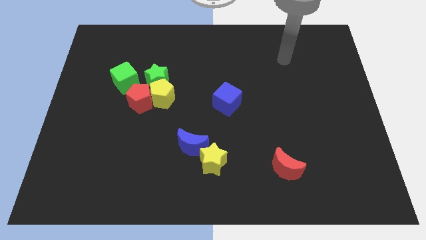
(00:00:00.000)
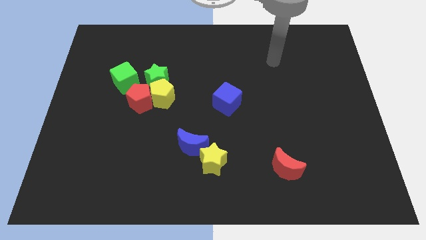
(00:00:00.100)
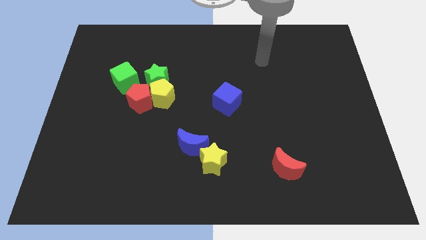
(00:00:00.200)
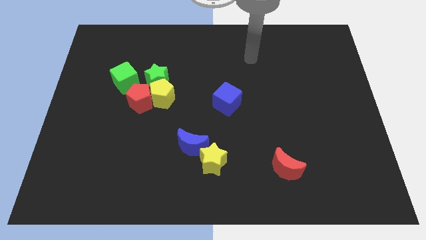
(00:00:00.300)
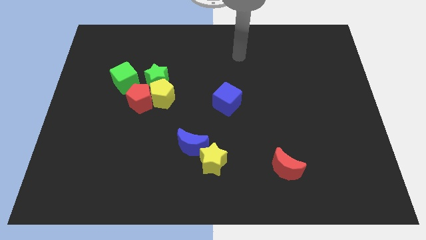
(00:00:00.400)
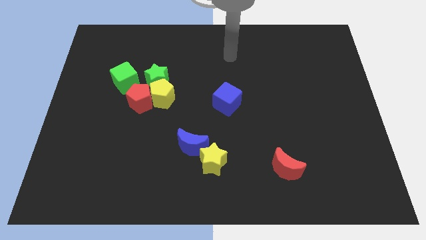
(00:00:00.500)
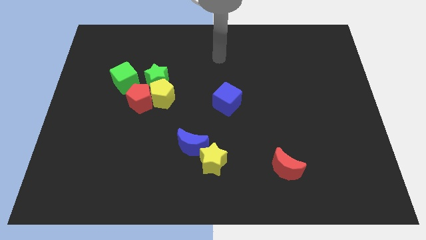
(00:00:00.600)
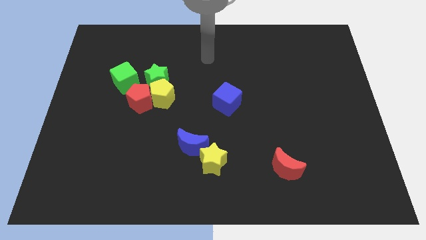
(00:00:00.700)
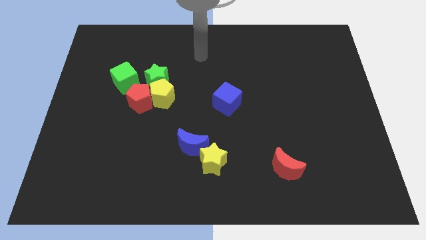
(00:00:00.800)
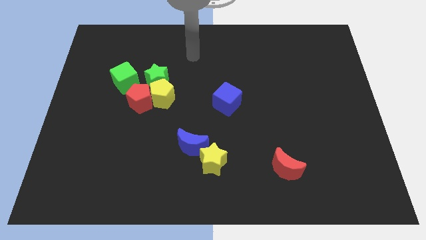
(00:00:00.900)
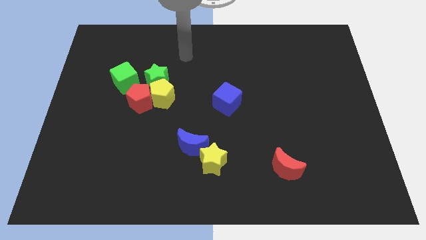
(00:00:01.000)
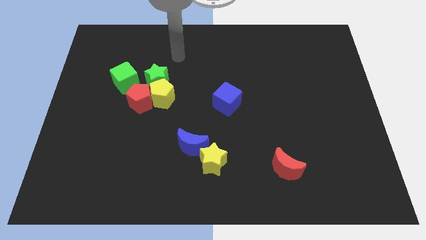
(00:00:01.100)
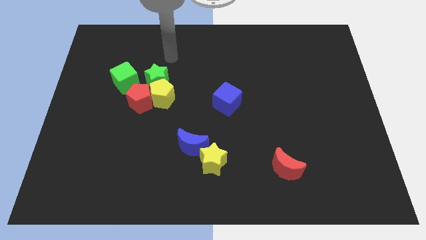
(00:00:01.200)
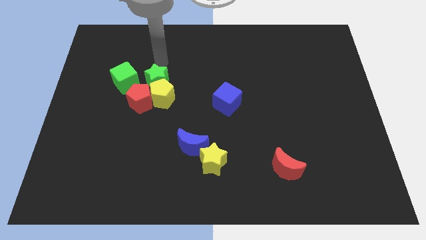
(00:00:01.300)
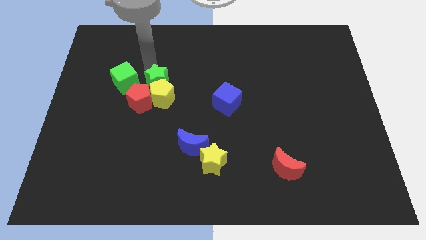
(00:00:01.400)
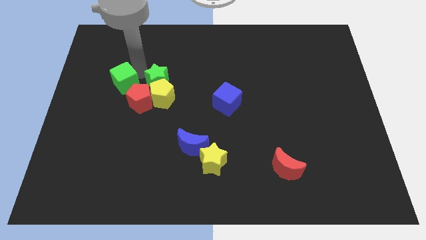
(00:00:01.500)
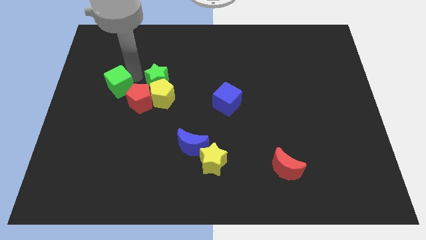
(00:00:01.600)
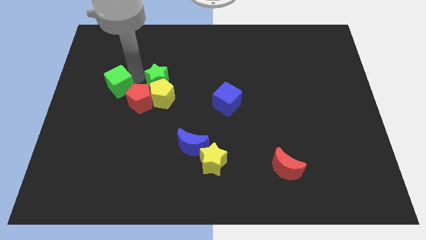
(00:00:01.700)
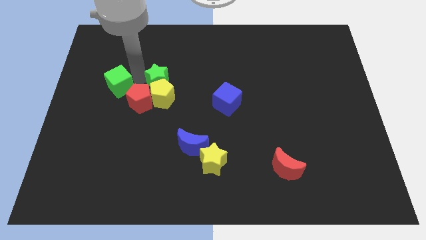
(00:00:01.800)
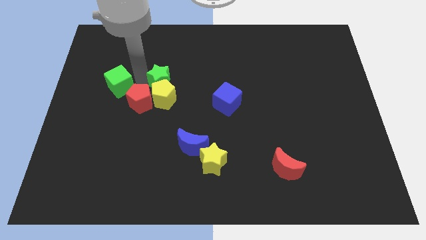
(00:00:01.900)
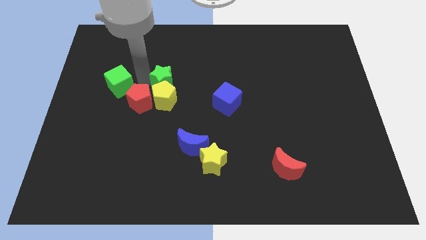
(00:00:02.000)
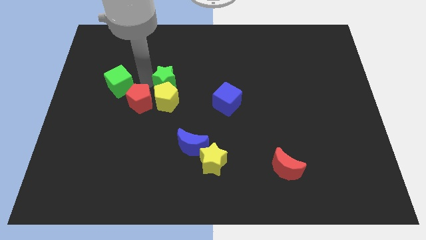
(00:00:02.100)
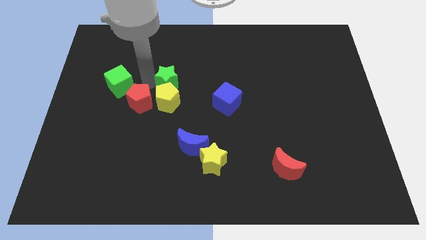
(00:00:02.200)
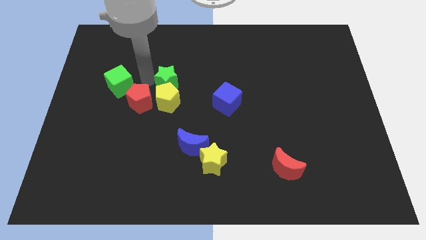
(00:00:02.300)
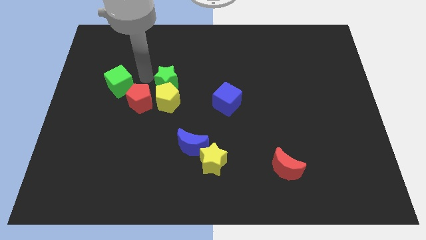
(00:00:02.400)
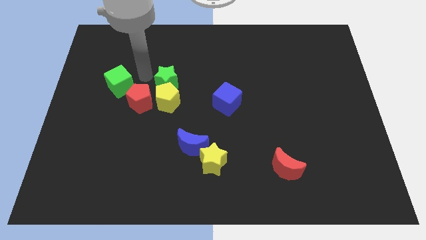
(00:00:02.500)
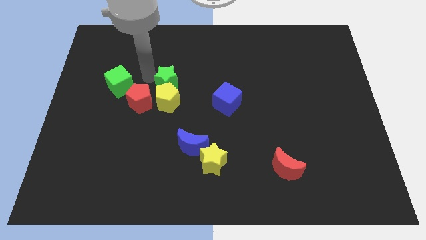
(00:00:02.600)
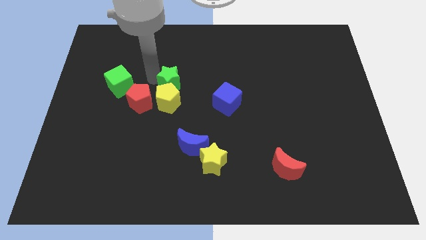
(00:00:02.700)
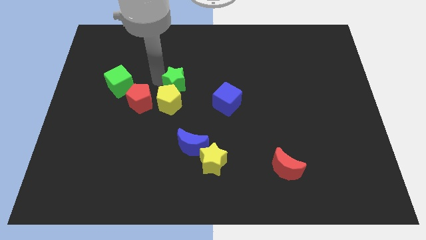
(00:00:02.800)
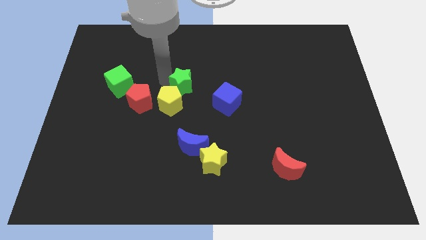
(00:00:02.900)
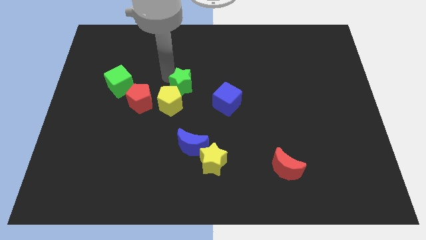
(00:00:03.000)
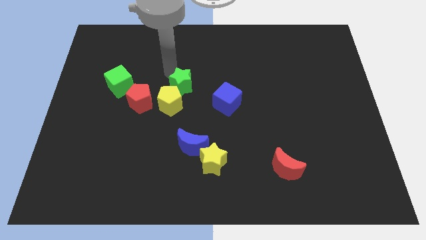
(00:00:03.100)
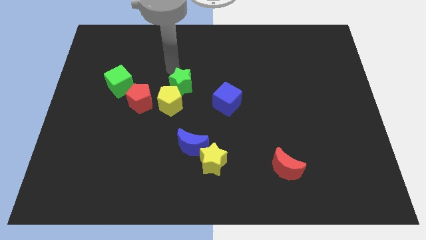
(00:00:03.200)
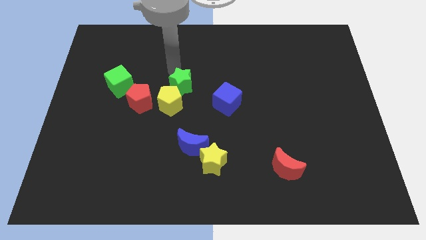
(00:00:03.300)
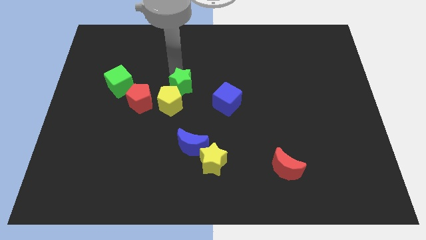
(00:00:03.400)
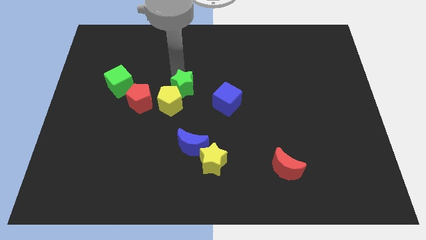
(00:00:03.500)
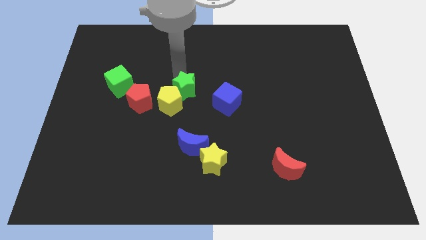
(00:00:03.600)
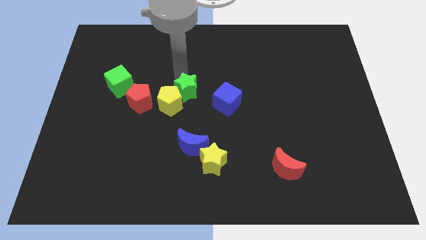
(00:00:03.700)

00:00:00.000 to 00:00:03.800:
push the green star a little diagonally down and right

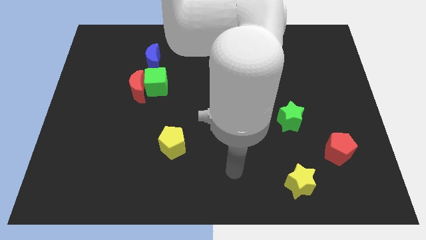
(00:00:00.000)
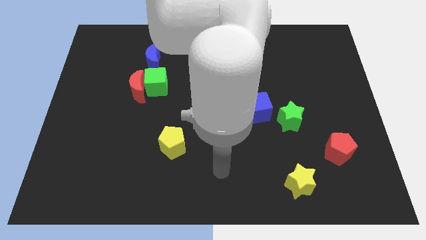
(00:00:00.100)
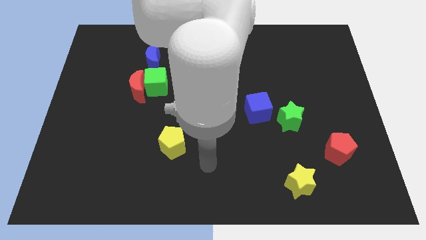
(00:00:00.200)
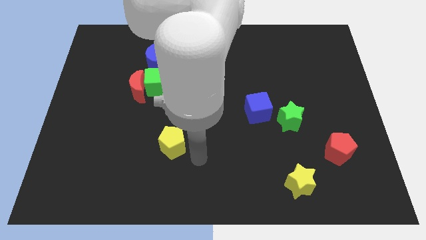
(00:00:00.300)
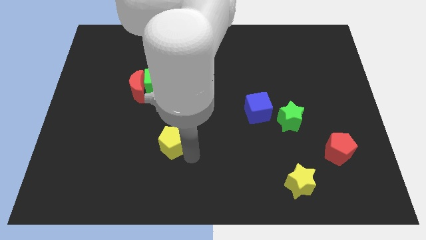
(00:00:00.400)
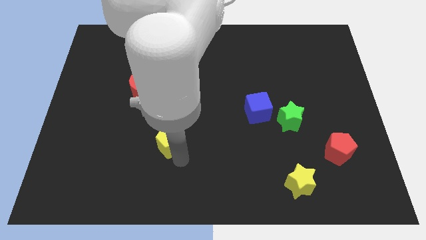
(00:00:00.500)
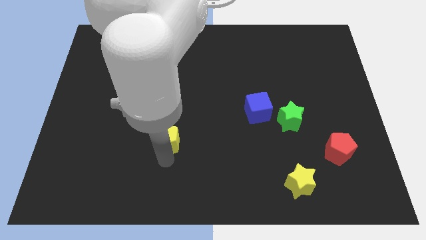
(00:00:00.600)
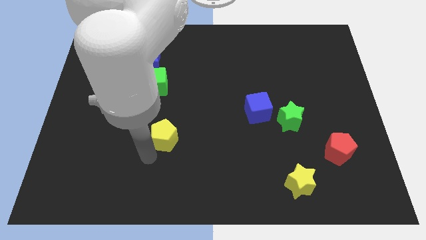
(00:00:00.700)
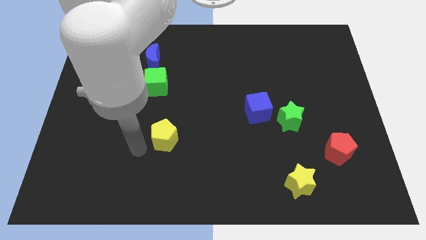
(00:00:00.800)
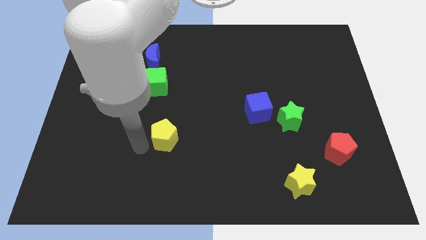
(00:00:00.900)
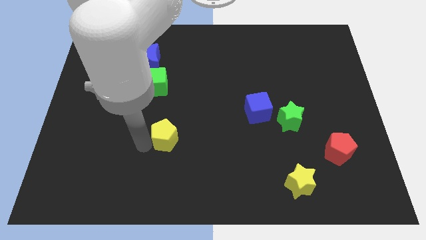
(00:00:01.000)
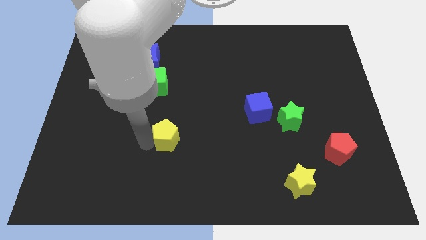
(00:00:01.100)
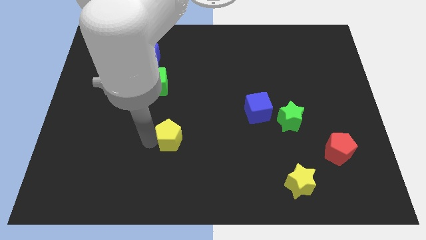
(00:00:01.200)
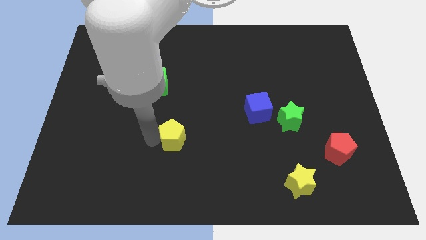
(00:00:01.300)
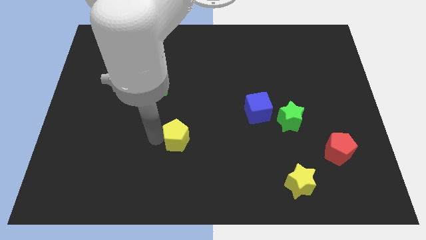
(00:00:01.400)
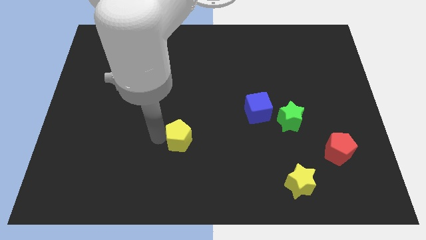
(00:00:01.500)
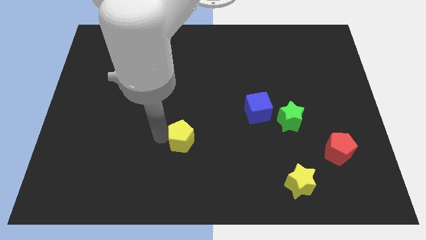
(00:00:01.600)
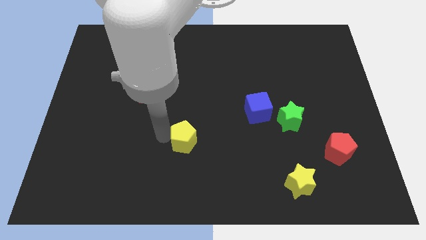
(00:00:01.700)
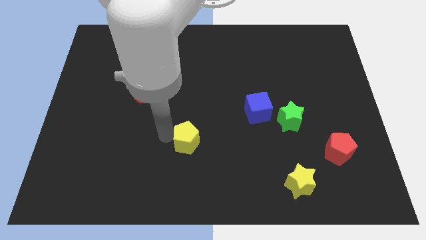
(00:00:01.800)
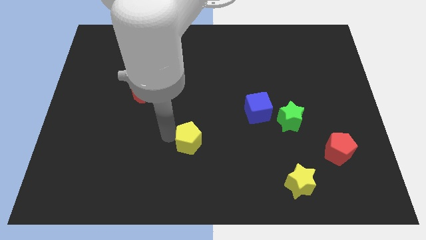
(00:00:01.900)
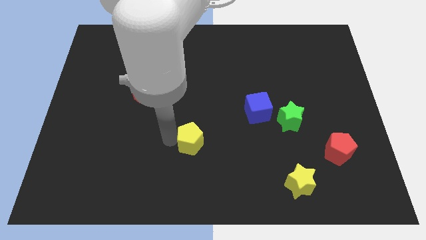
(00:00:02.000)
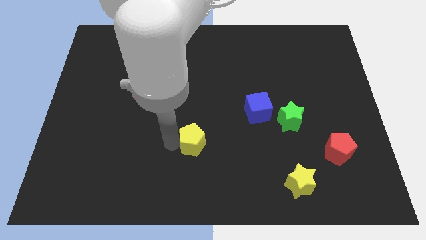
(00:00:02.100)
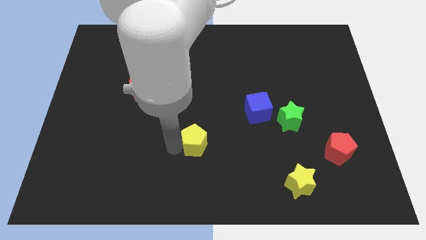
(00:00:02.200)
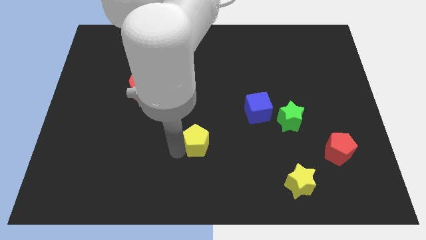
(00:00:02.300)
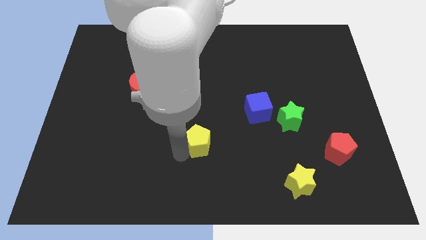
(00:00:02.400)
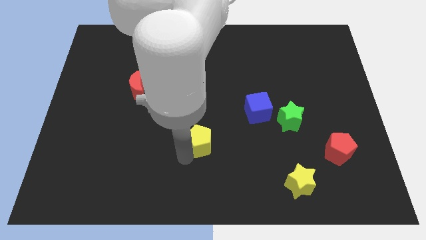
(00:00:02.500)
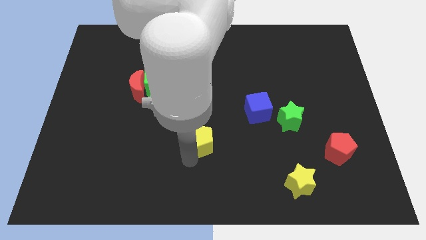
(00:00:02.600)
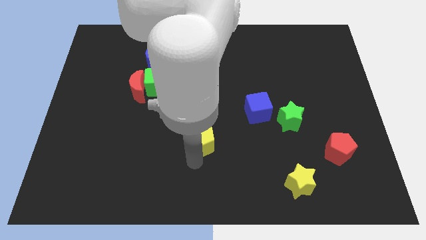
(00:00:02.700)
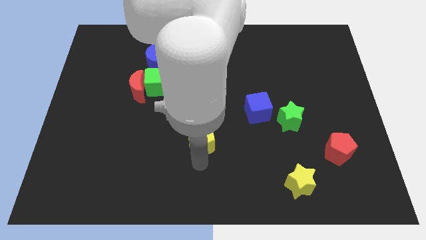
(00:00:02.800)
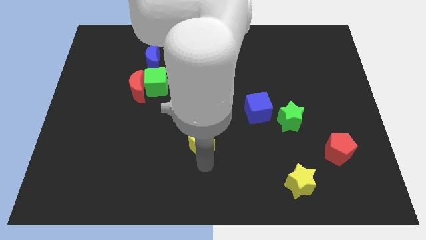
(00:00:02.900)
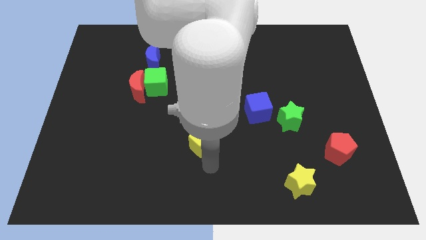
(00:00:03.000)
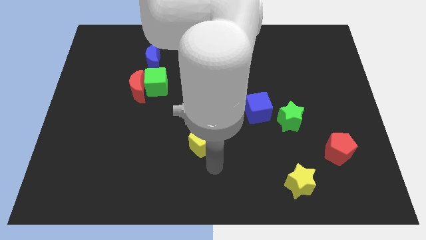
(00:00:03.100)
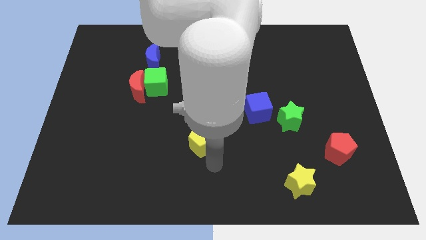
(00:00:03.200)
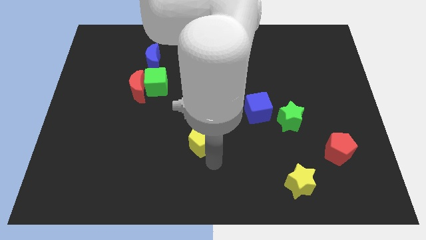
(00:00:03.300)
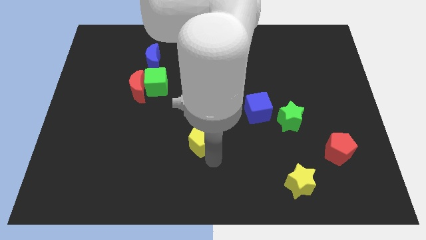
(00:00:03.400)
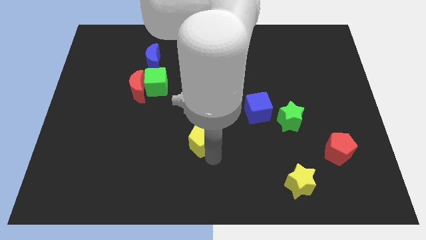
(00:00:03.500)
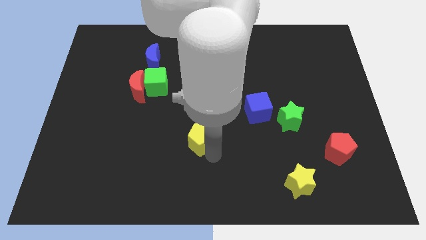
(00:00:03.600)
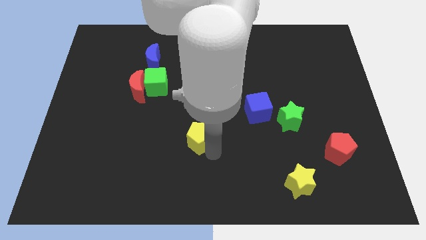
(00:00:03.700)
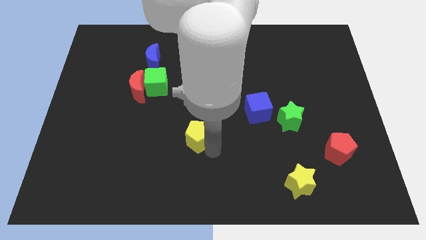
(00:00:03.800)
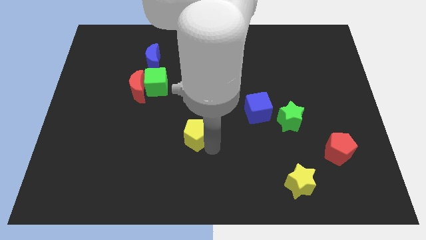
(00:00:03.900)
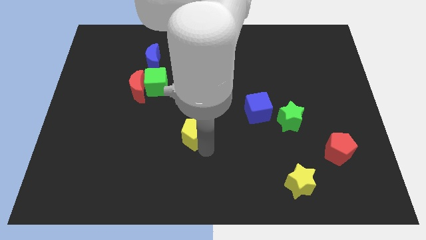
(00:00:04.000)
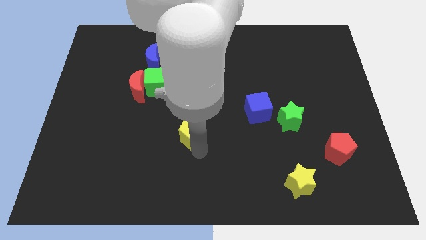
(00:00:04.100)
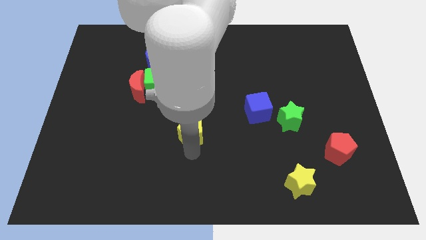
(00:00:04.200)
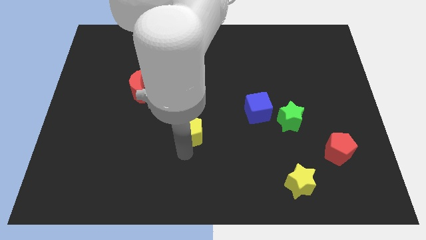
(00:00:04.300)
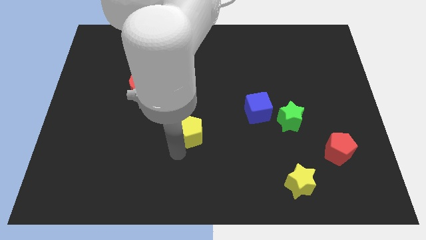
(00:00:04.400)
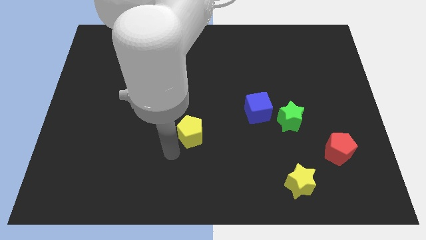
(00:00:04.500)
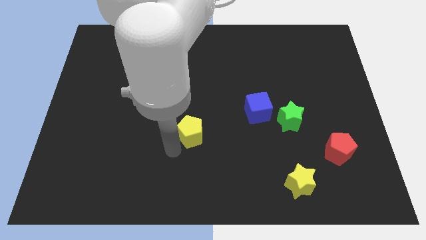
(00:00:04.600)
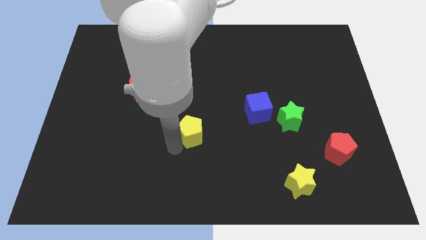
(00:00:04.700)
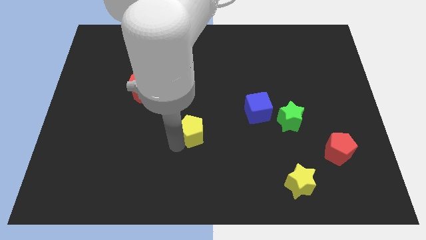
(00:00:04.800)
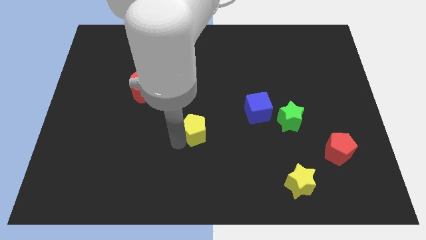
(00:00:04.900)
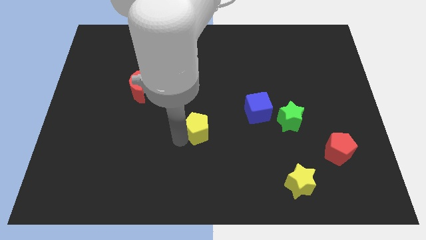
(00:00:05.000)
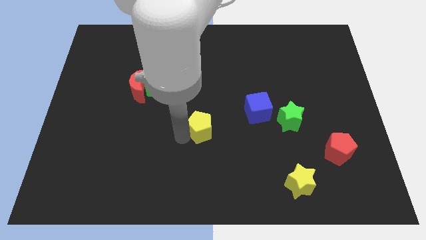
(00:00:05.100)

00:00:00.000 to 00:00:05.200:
slide the yellow pentagon somewhat upwards and to the right diagonally
